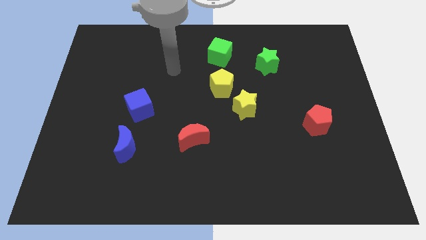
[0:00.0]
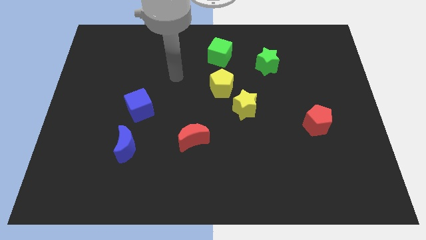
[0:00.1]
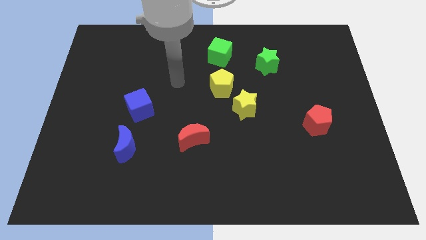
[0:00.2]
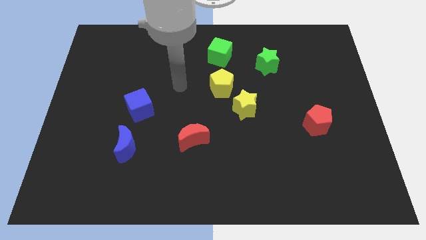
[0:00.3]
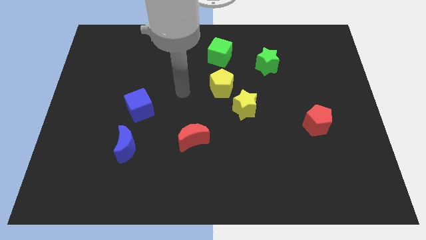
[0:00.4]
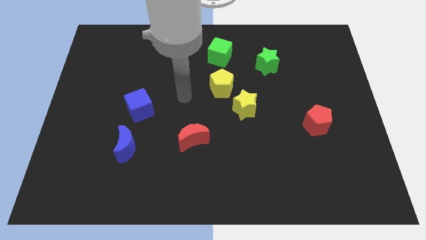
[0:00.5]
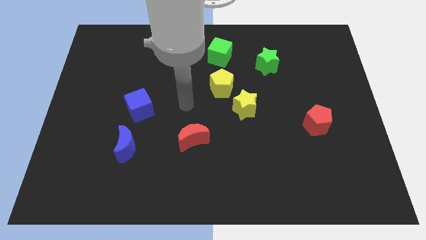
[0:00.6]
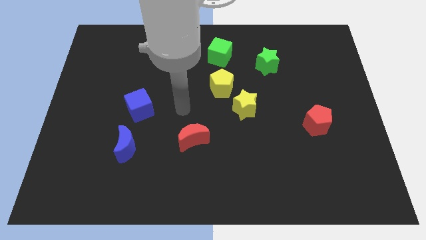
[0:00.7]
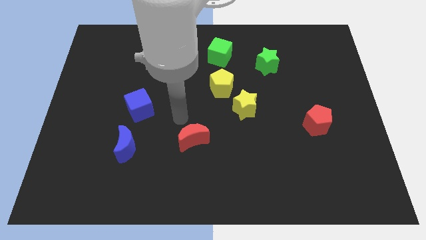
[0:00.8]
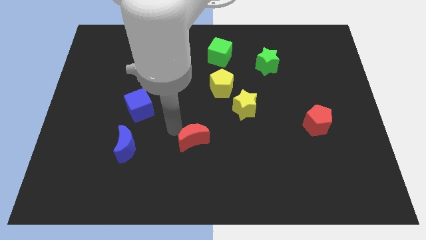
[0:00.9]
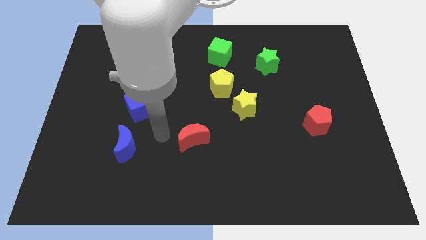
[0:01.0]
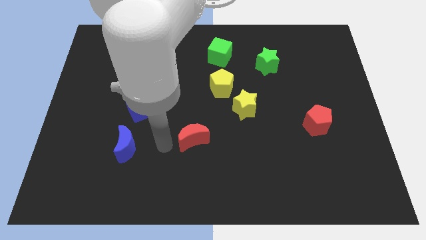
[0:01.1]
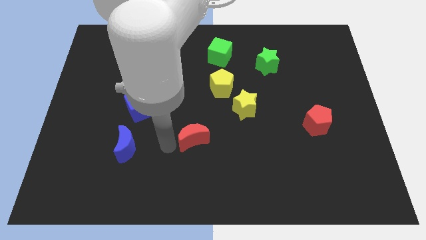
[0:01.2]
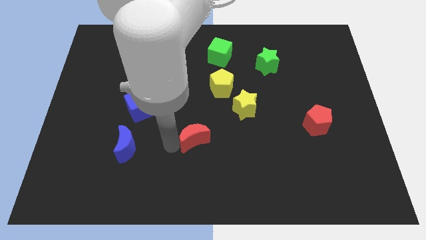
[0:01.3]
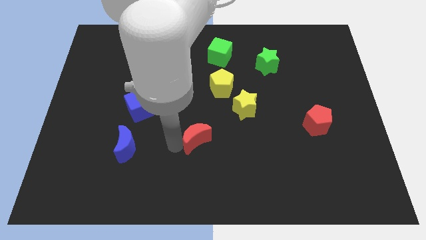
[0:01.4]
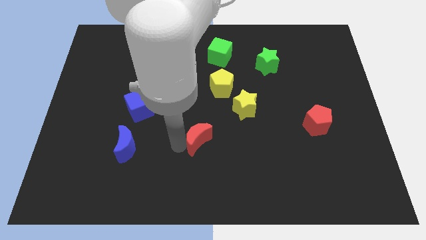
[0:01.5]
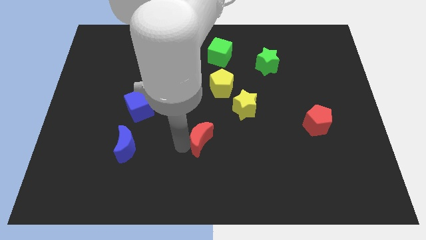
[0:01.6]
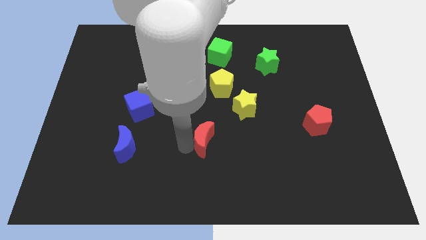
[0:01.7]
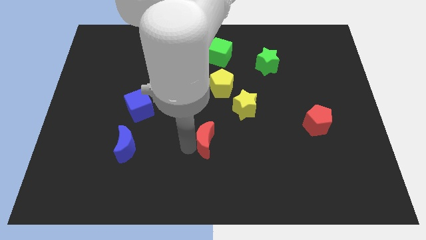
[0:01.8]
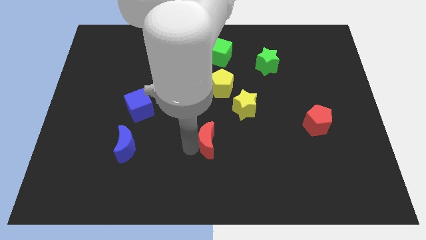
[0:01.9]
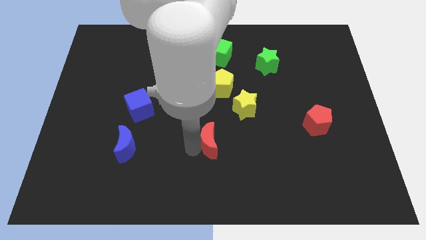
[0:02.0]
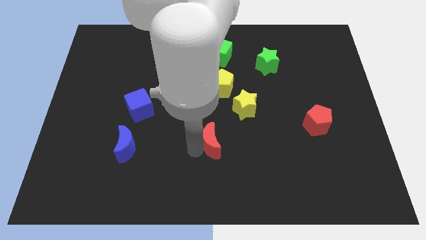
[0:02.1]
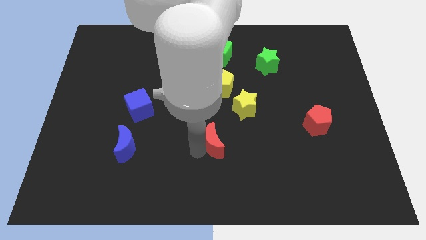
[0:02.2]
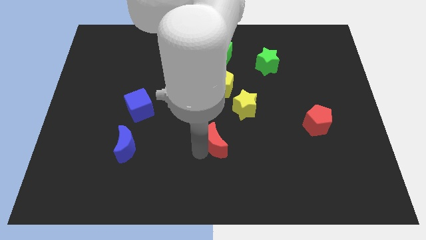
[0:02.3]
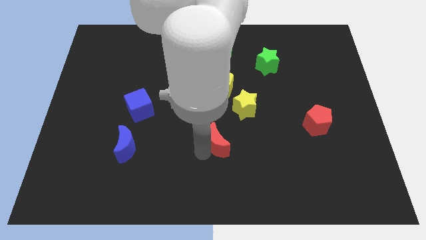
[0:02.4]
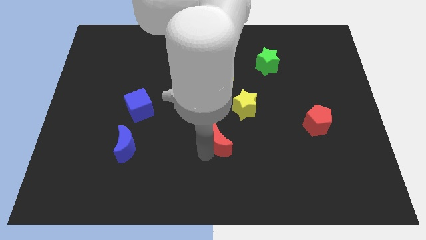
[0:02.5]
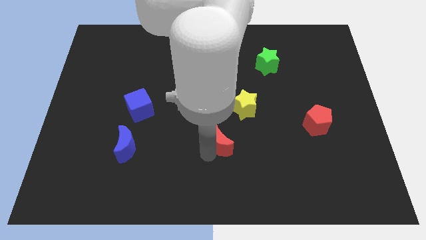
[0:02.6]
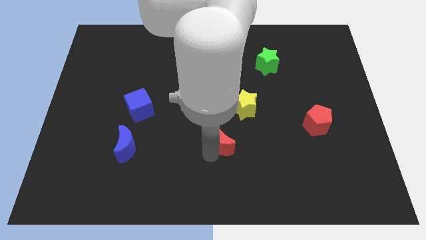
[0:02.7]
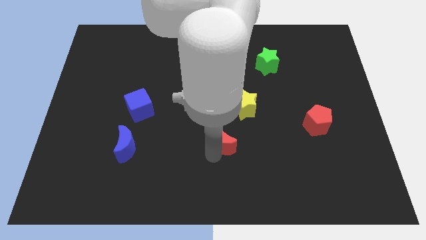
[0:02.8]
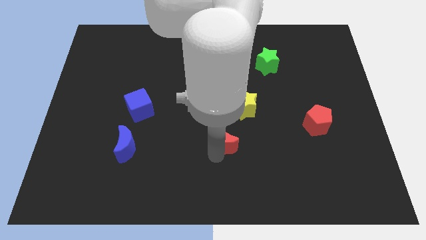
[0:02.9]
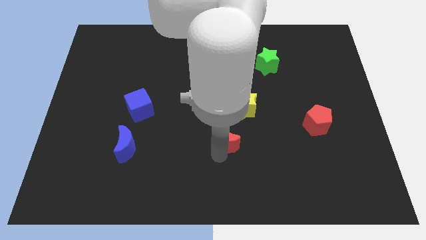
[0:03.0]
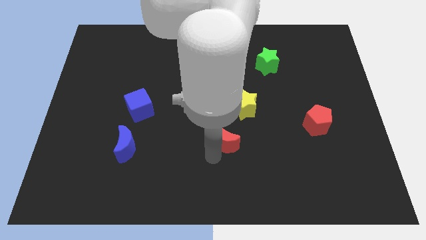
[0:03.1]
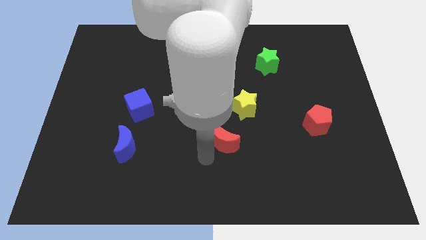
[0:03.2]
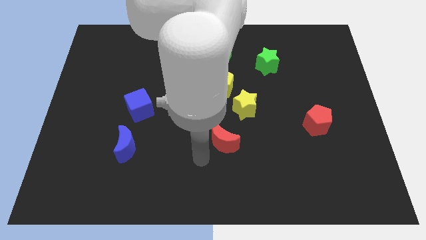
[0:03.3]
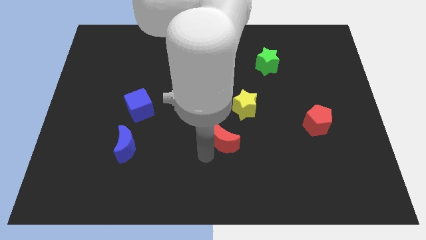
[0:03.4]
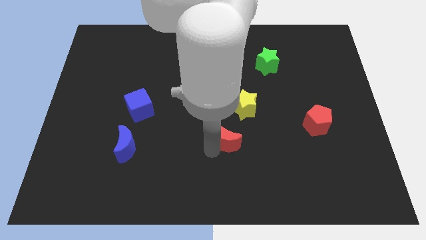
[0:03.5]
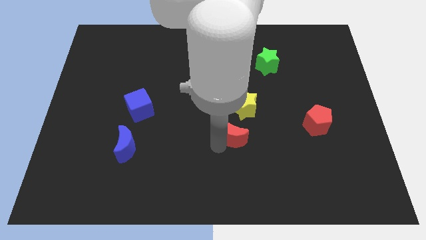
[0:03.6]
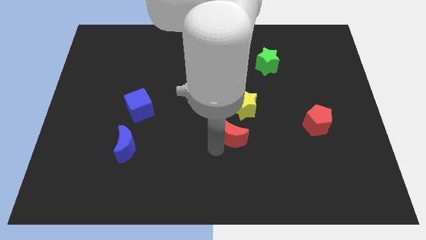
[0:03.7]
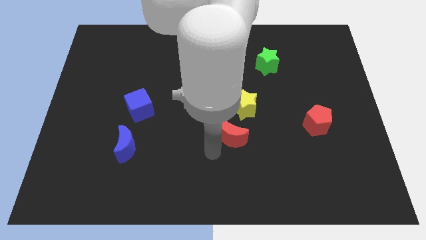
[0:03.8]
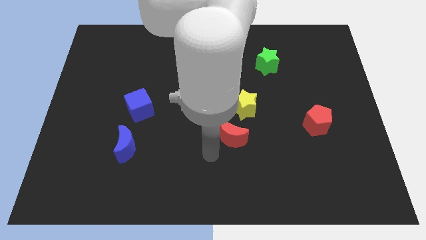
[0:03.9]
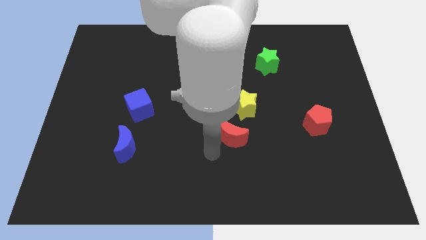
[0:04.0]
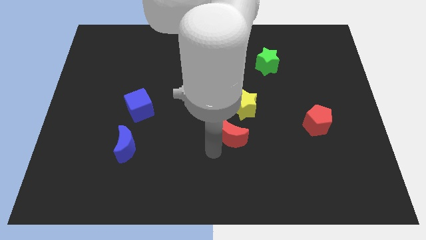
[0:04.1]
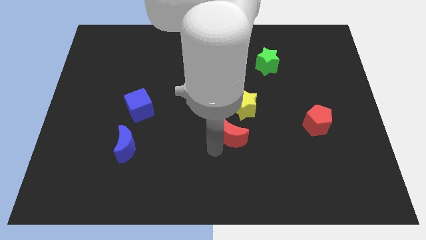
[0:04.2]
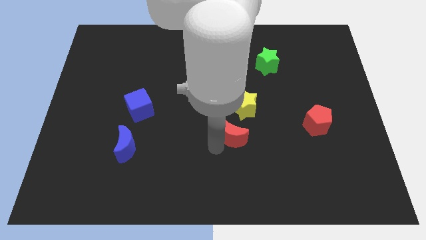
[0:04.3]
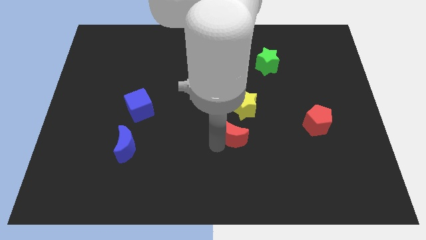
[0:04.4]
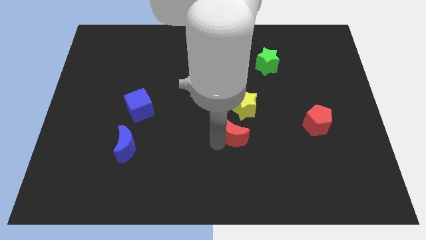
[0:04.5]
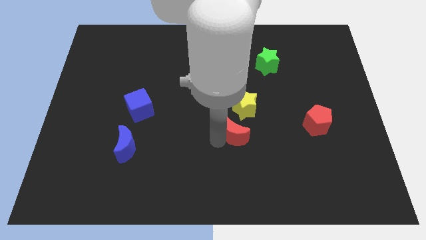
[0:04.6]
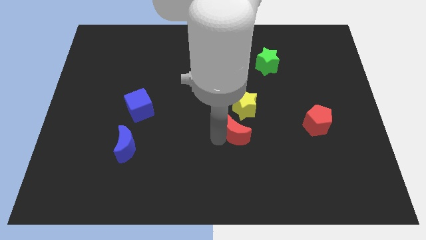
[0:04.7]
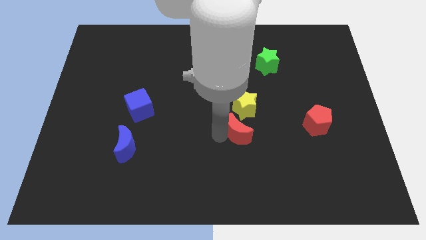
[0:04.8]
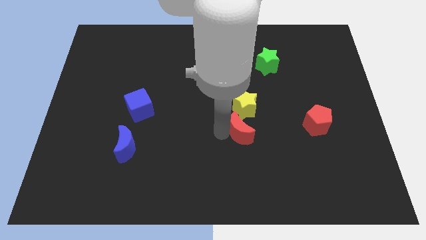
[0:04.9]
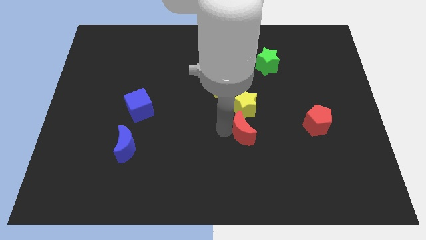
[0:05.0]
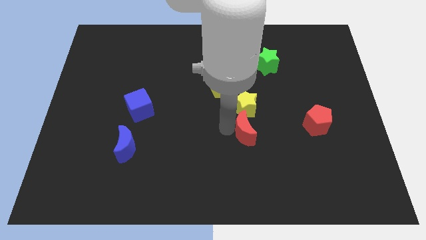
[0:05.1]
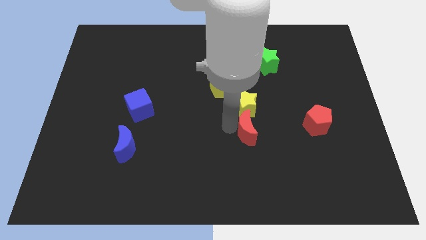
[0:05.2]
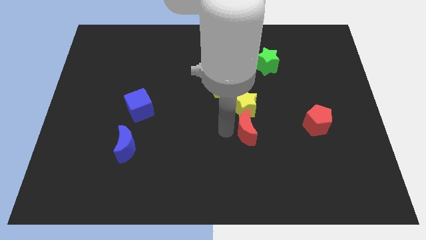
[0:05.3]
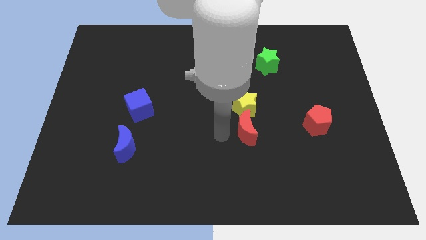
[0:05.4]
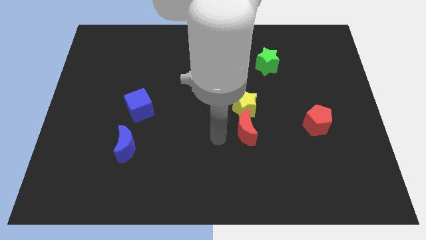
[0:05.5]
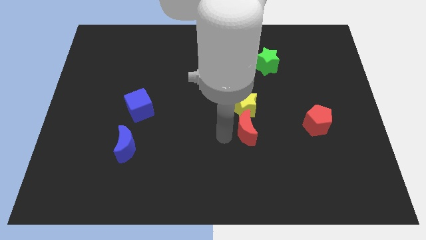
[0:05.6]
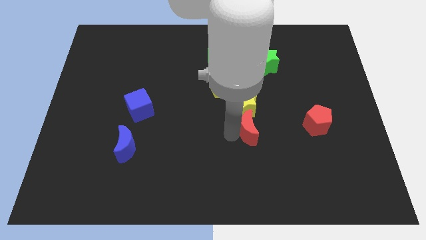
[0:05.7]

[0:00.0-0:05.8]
move the red moon to the left side of the red pentagon

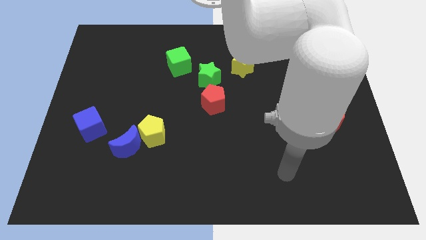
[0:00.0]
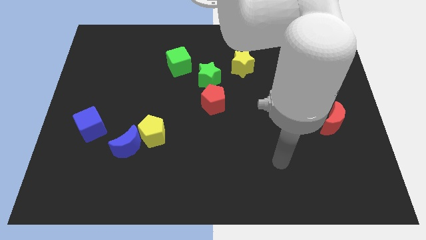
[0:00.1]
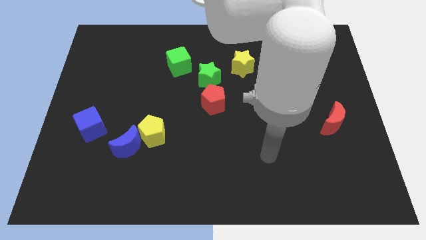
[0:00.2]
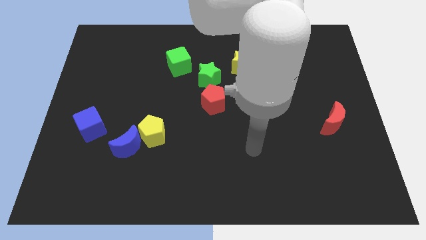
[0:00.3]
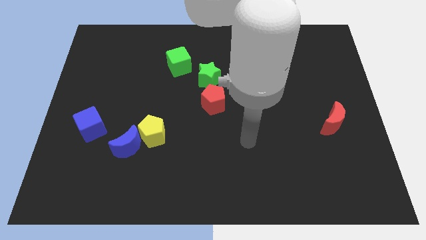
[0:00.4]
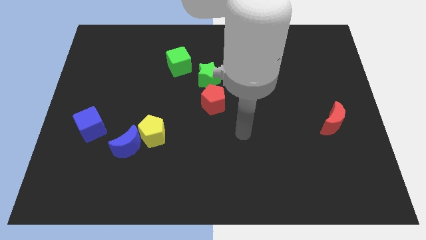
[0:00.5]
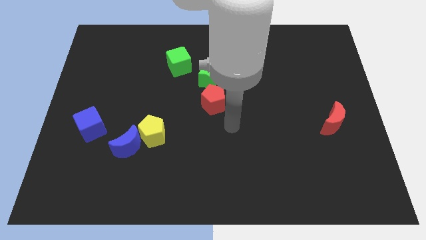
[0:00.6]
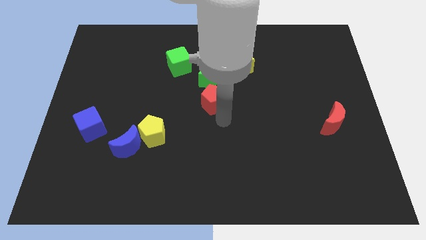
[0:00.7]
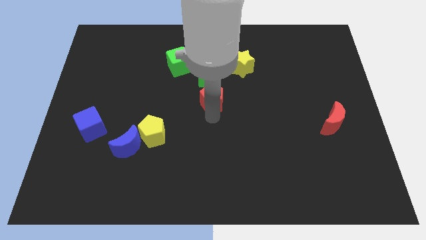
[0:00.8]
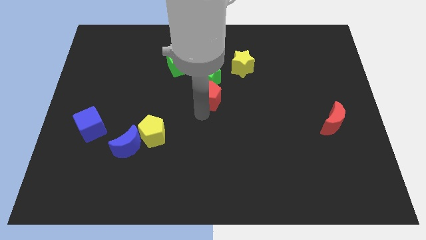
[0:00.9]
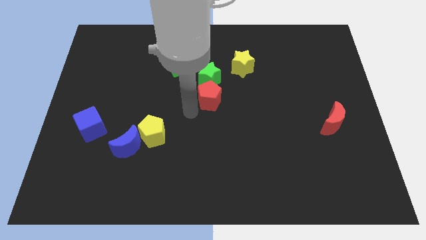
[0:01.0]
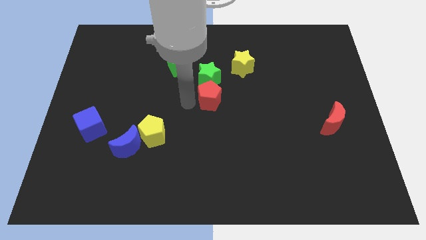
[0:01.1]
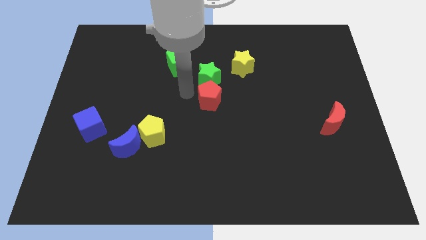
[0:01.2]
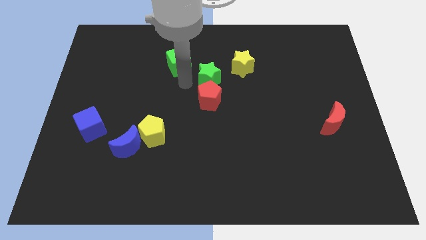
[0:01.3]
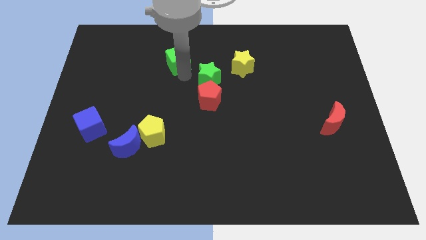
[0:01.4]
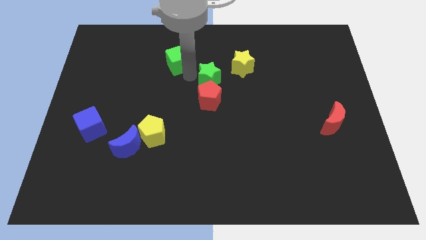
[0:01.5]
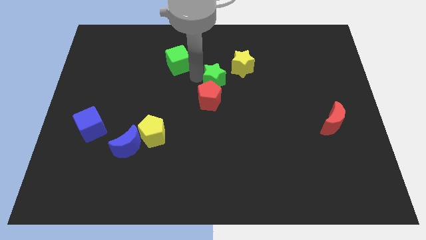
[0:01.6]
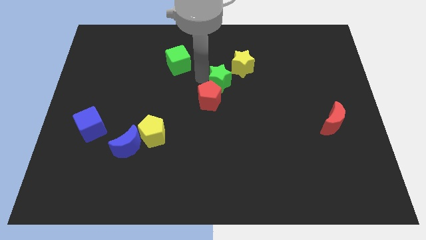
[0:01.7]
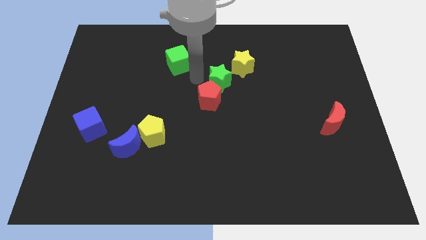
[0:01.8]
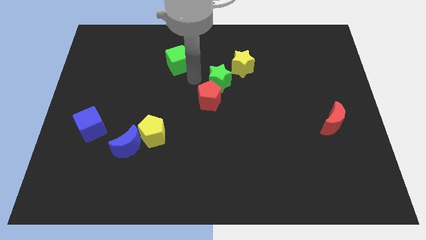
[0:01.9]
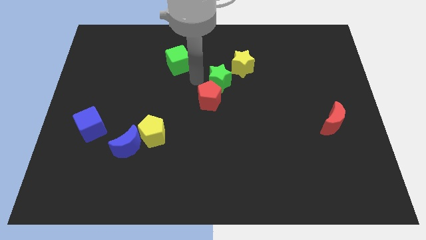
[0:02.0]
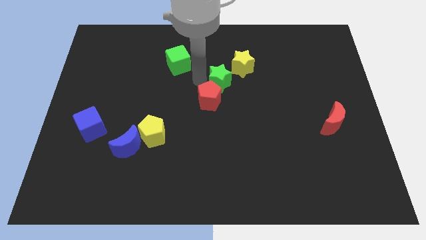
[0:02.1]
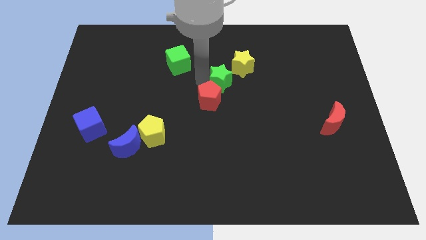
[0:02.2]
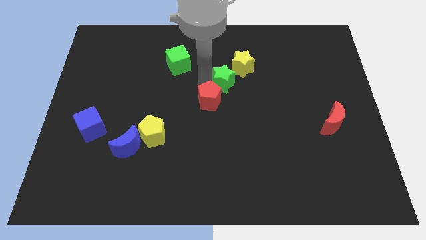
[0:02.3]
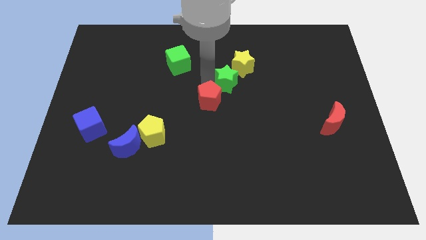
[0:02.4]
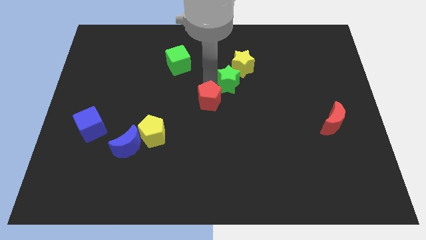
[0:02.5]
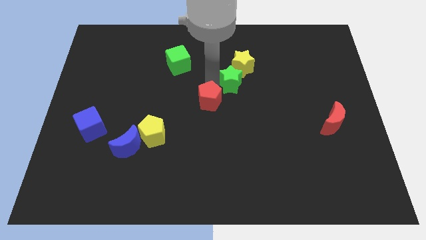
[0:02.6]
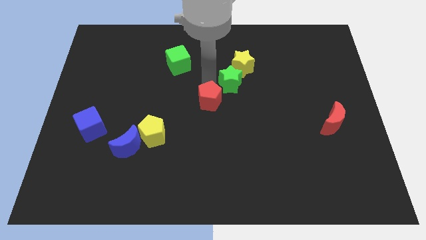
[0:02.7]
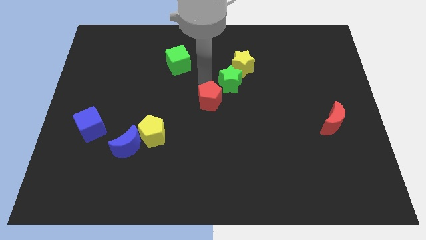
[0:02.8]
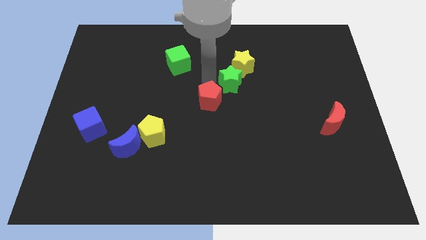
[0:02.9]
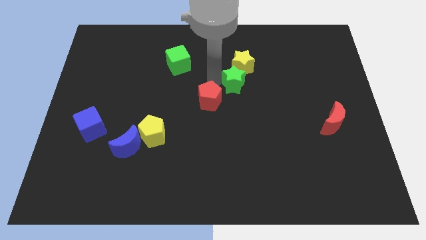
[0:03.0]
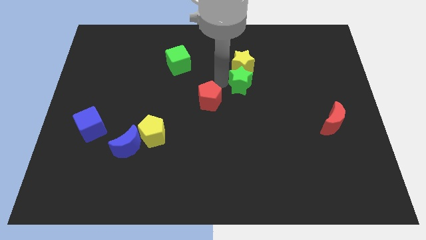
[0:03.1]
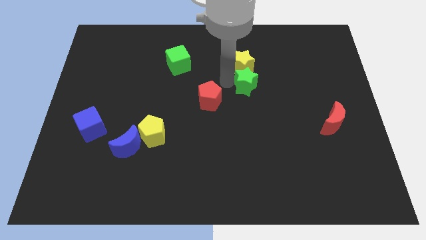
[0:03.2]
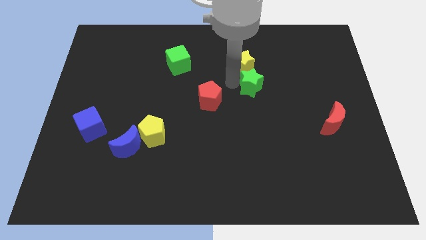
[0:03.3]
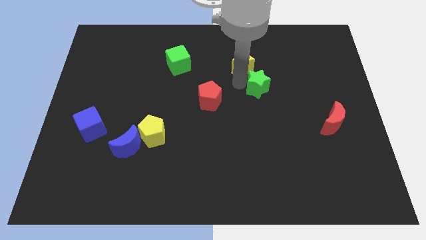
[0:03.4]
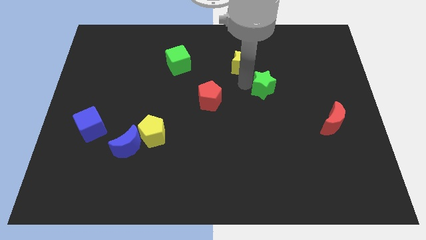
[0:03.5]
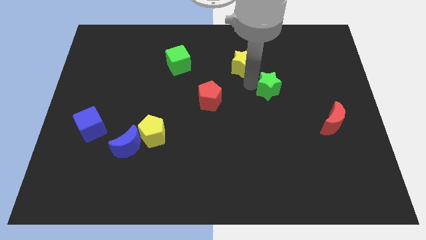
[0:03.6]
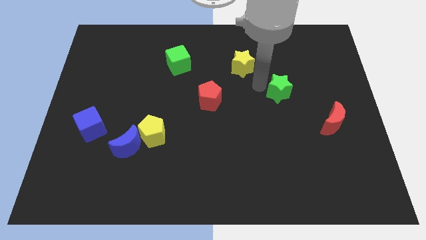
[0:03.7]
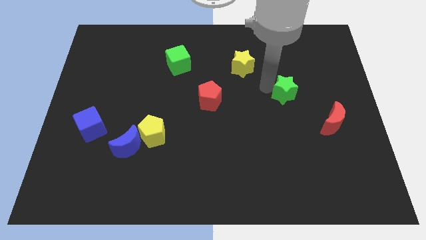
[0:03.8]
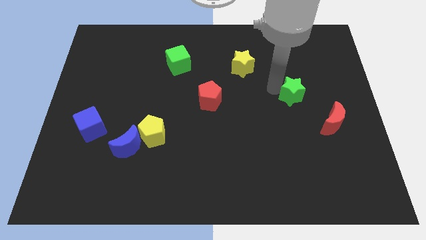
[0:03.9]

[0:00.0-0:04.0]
move the green star diagonally up and to the left of the red moon
